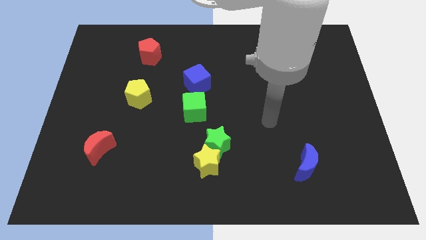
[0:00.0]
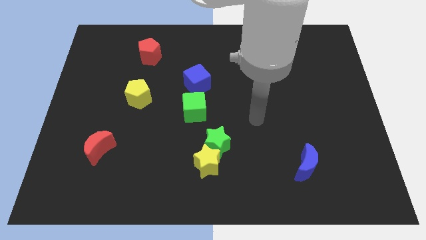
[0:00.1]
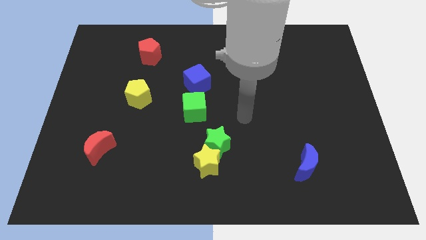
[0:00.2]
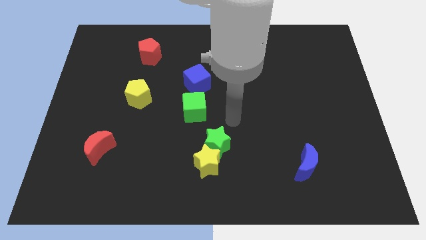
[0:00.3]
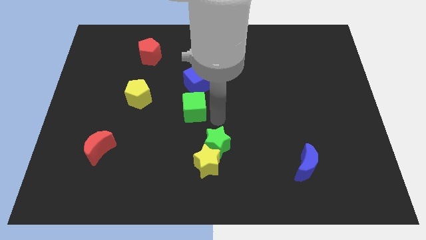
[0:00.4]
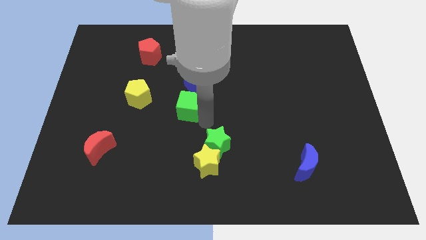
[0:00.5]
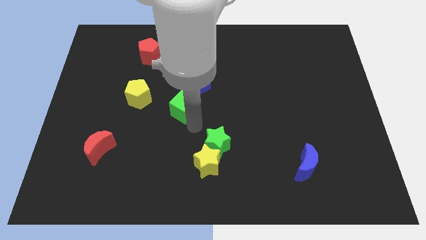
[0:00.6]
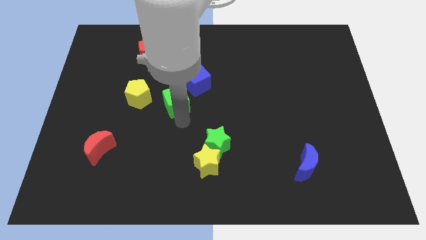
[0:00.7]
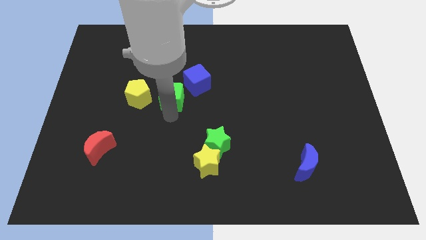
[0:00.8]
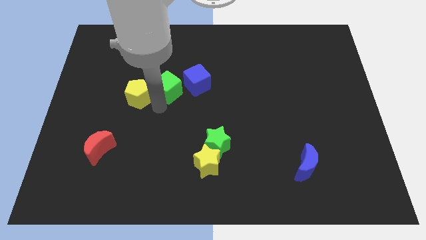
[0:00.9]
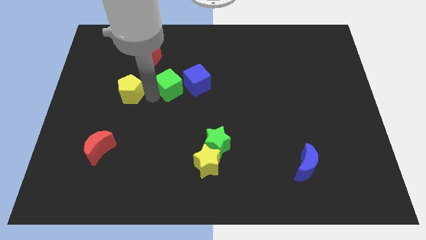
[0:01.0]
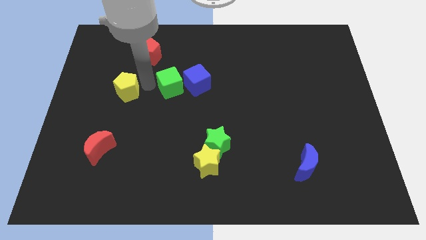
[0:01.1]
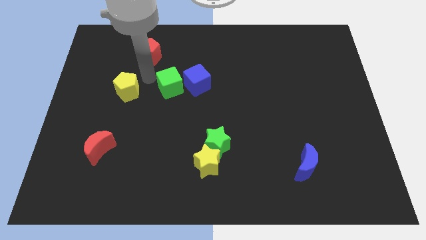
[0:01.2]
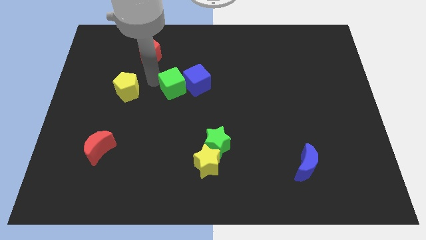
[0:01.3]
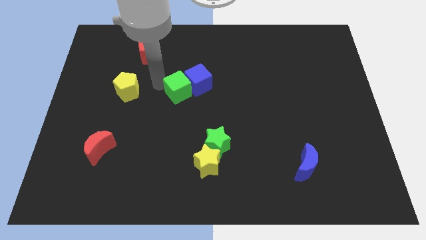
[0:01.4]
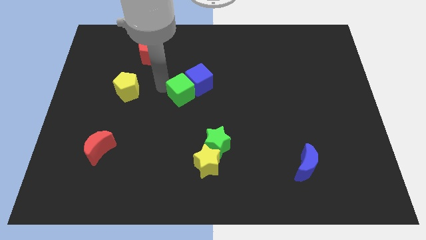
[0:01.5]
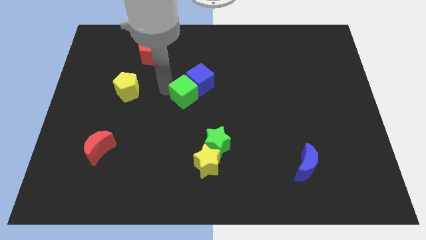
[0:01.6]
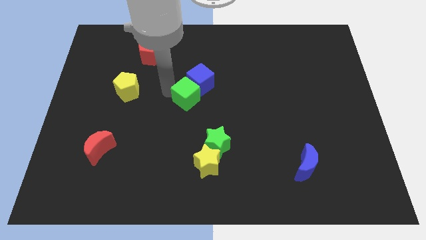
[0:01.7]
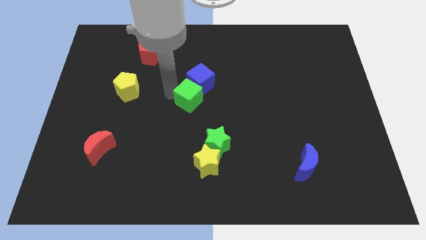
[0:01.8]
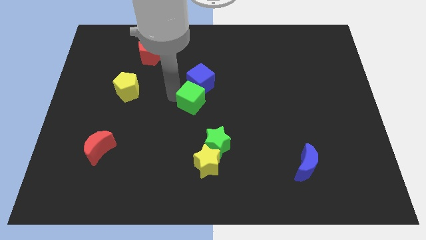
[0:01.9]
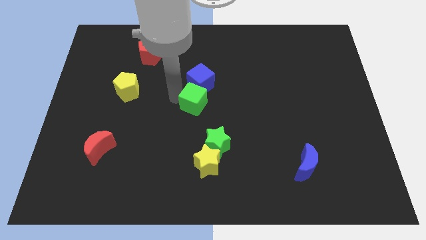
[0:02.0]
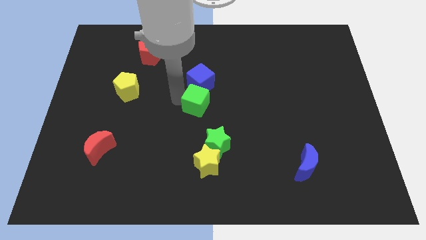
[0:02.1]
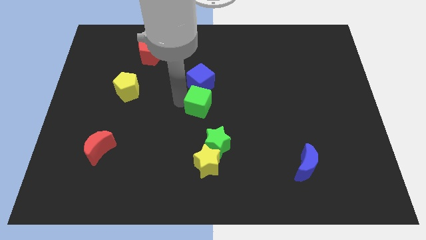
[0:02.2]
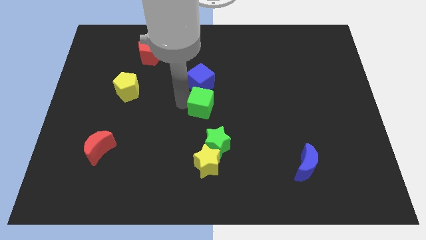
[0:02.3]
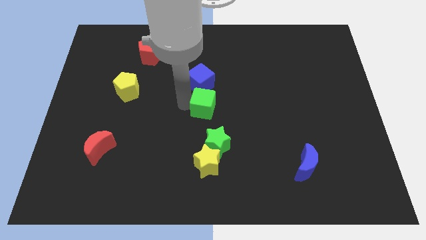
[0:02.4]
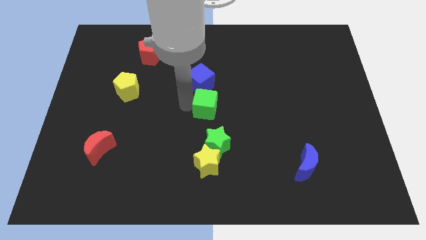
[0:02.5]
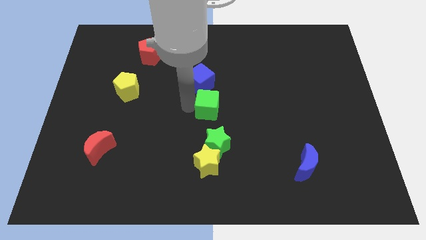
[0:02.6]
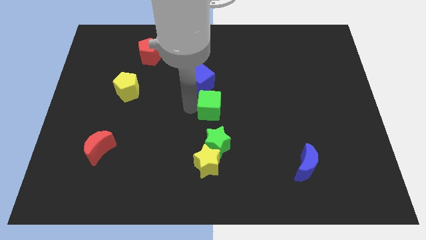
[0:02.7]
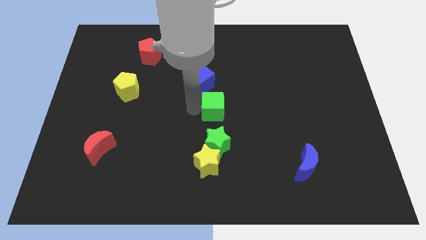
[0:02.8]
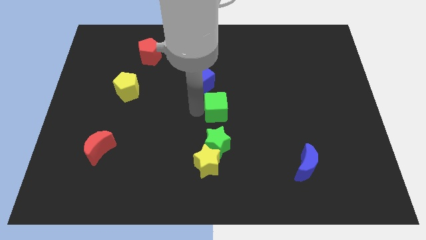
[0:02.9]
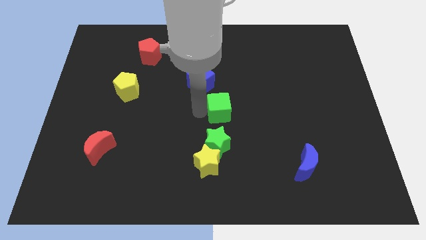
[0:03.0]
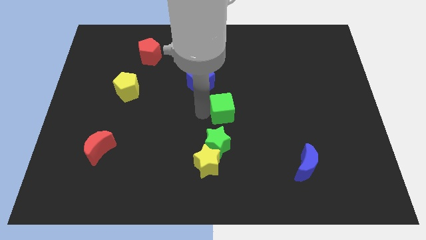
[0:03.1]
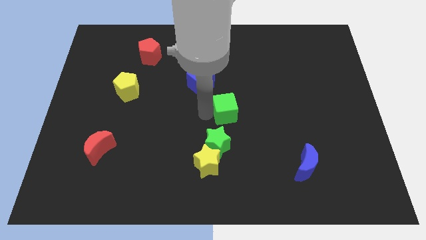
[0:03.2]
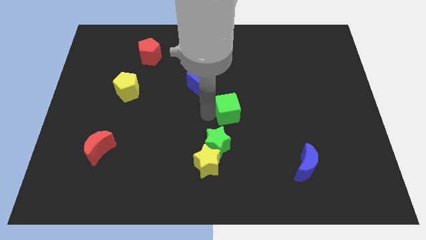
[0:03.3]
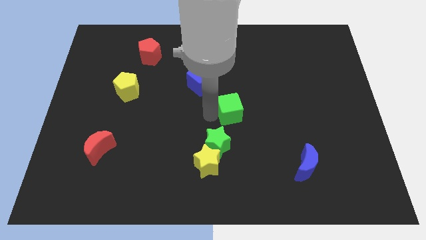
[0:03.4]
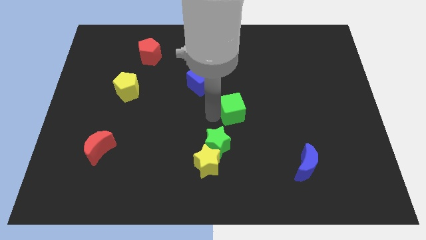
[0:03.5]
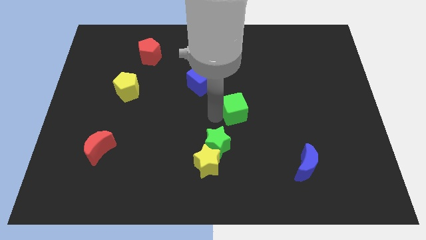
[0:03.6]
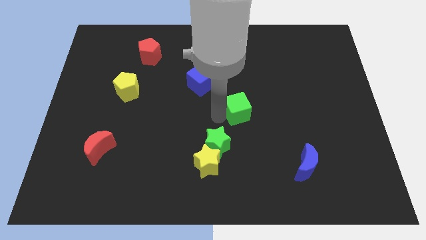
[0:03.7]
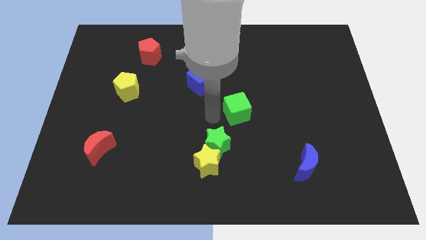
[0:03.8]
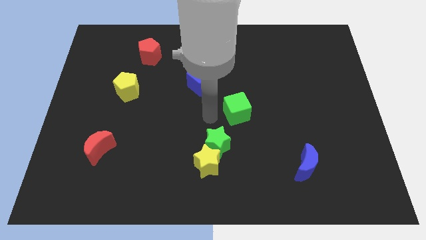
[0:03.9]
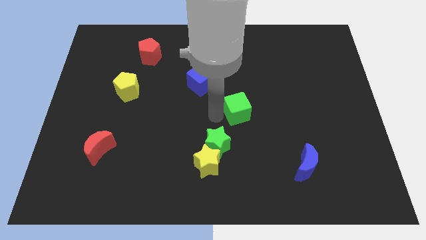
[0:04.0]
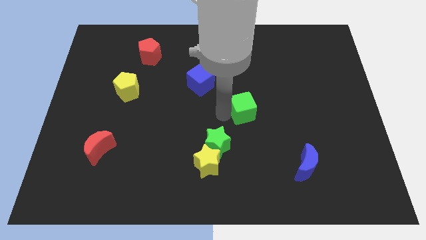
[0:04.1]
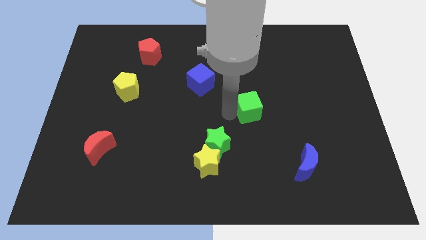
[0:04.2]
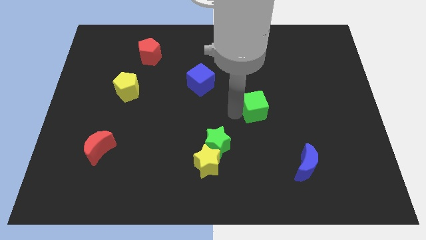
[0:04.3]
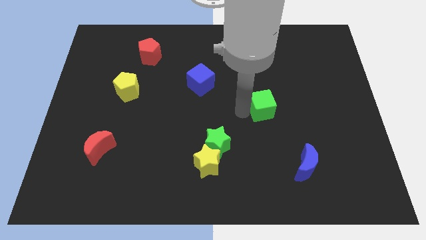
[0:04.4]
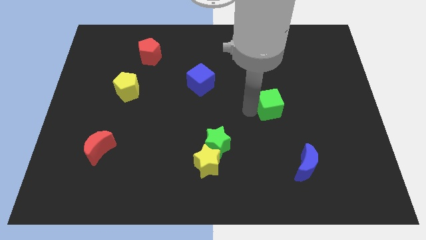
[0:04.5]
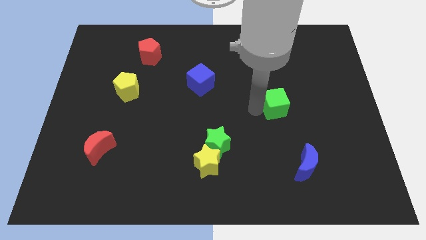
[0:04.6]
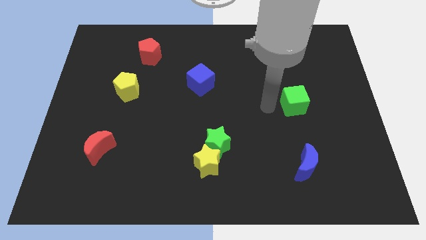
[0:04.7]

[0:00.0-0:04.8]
slide the green cube right

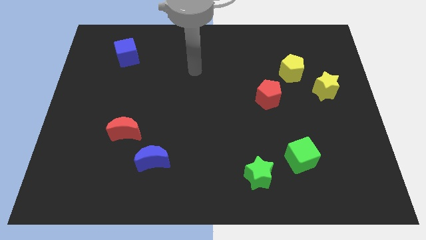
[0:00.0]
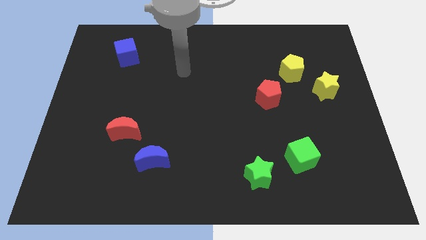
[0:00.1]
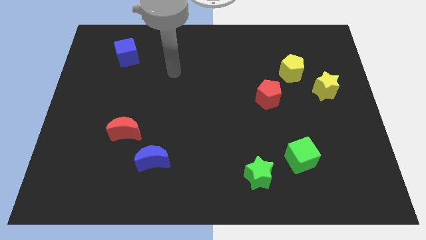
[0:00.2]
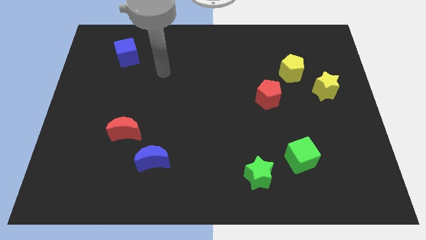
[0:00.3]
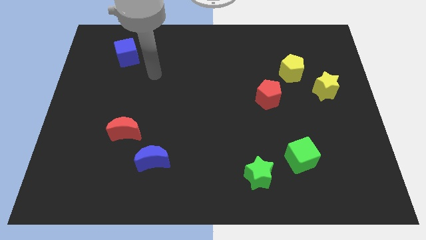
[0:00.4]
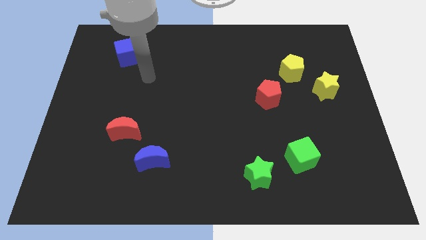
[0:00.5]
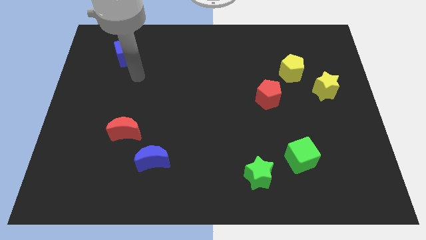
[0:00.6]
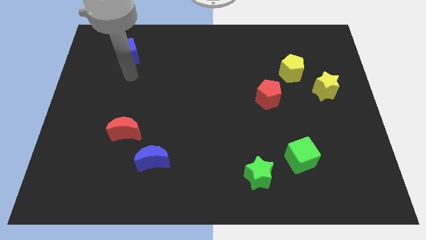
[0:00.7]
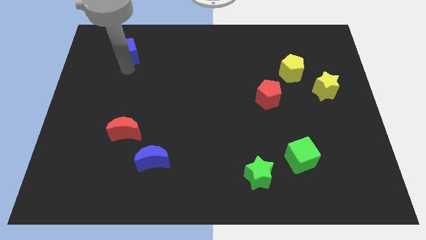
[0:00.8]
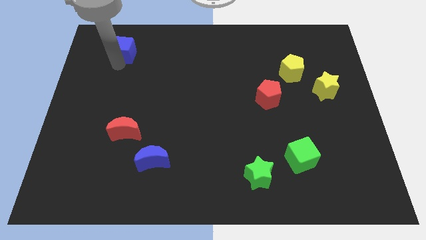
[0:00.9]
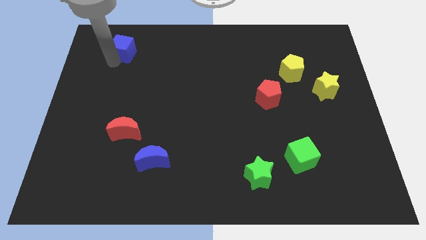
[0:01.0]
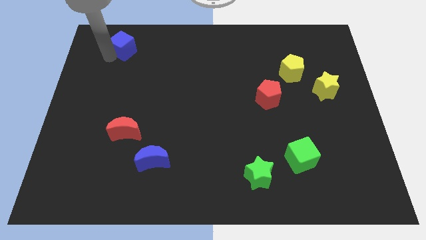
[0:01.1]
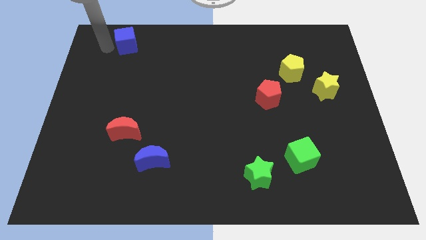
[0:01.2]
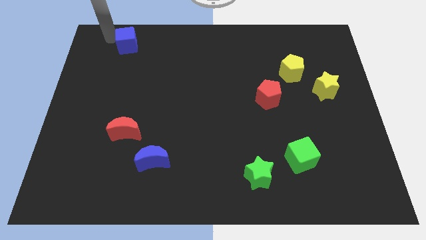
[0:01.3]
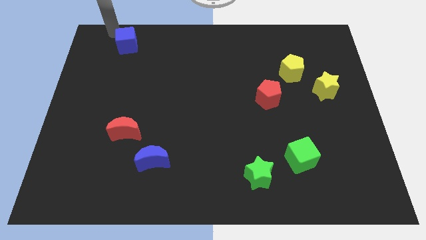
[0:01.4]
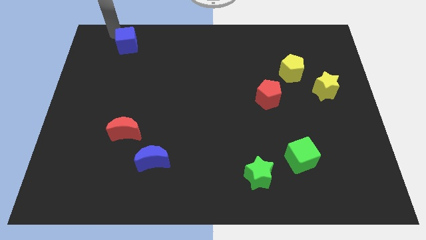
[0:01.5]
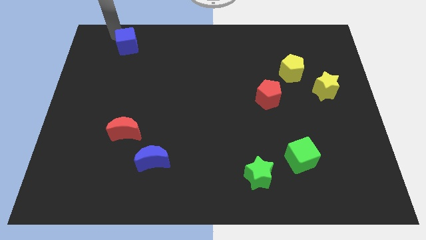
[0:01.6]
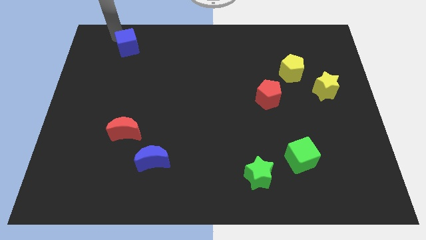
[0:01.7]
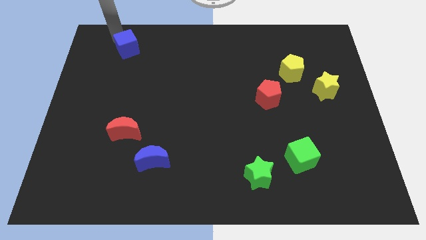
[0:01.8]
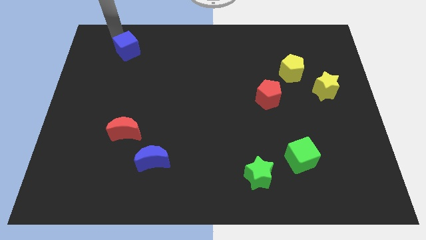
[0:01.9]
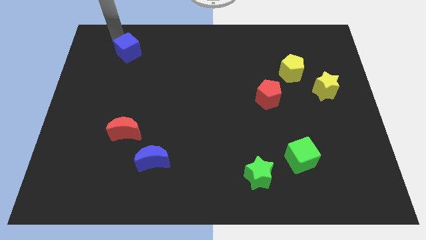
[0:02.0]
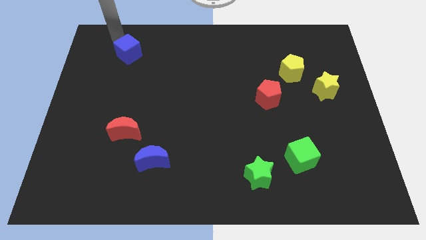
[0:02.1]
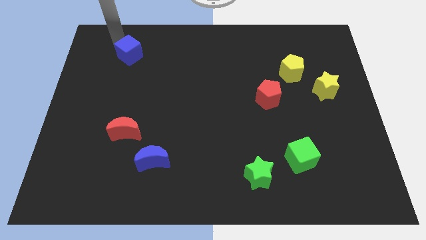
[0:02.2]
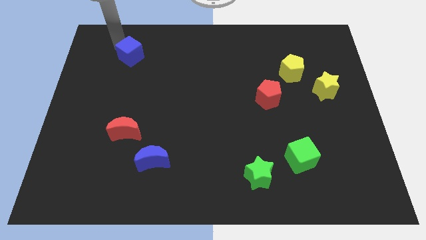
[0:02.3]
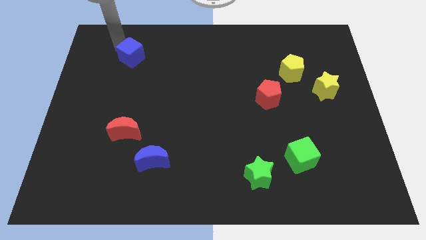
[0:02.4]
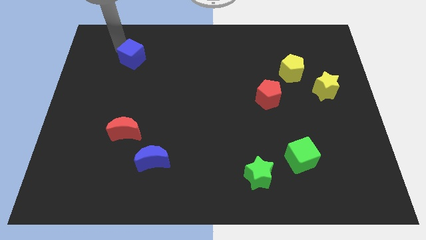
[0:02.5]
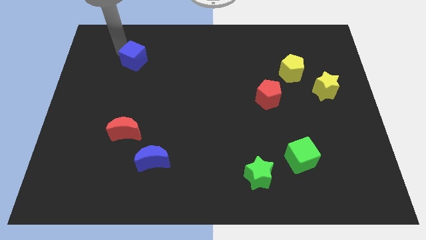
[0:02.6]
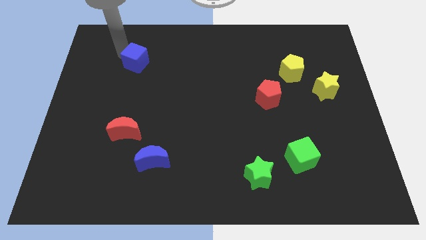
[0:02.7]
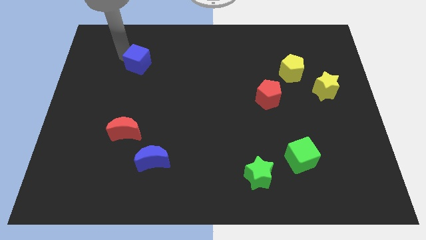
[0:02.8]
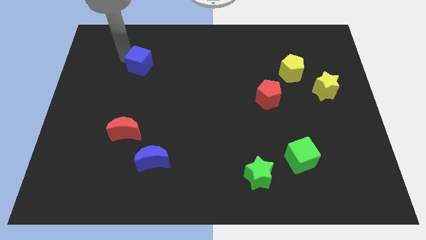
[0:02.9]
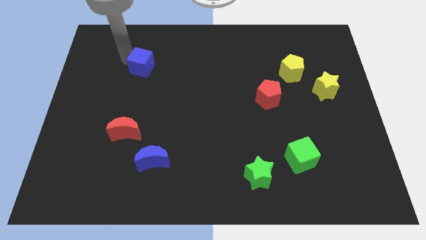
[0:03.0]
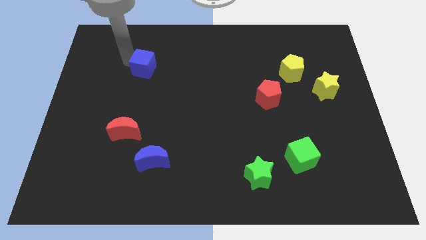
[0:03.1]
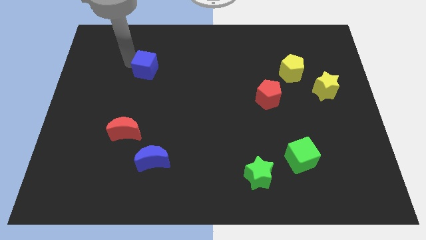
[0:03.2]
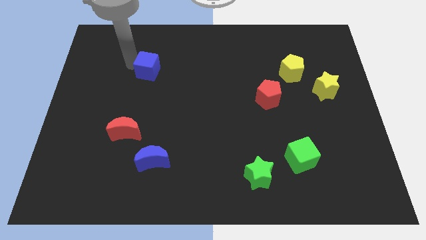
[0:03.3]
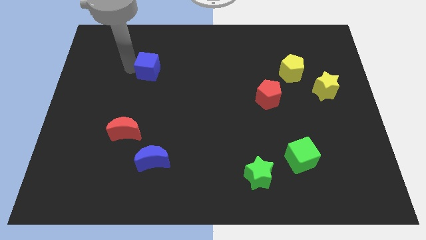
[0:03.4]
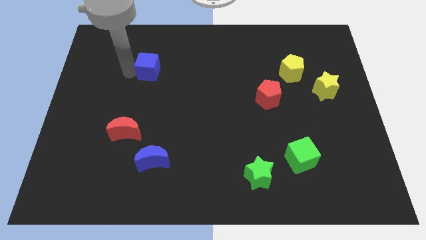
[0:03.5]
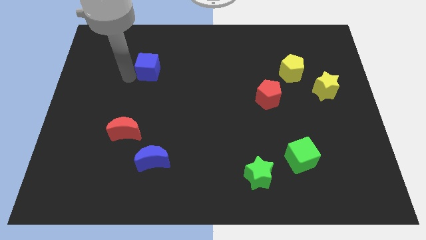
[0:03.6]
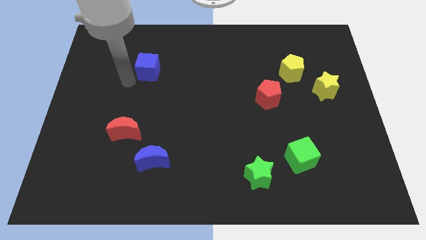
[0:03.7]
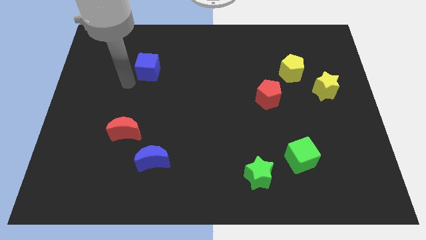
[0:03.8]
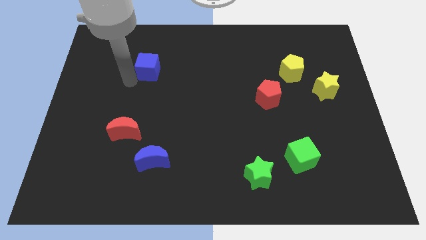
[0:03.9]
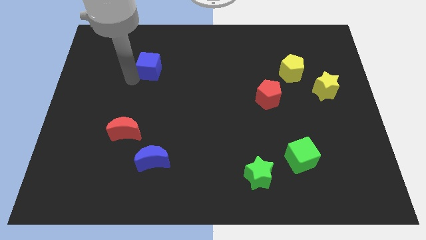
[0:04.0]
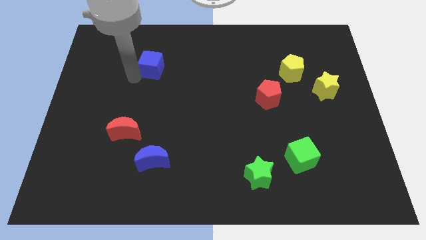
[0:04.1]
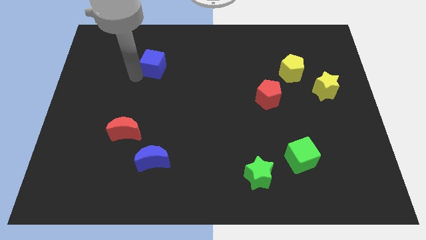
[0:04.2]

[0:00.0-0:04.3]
slightly move the blue cube to the right
